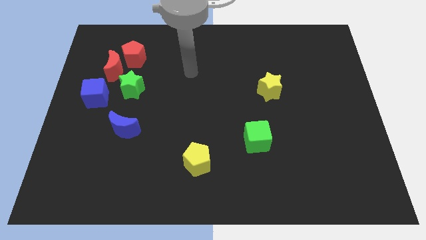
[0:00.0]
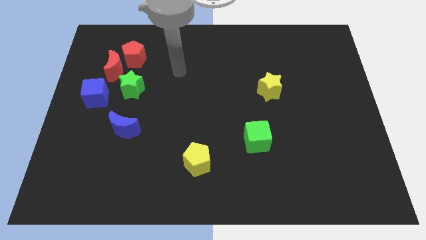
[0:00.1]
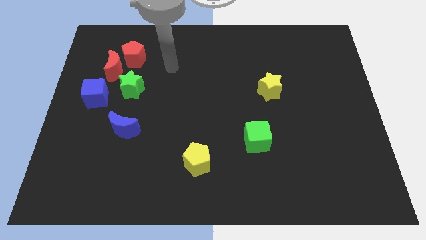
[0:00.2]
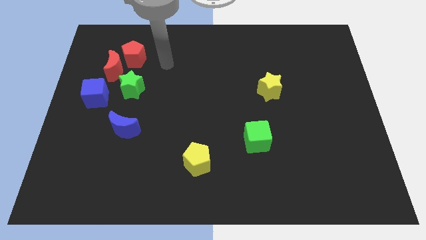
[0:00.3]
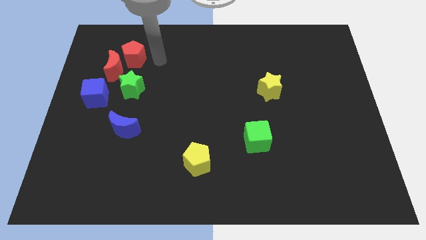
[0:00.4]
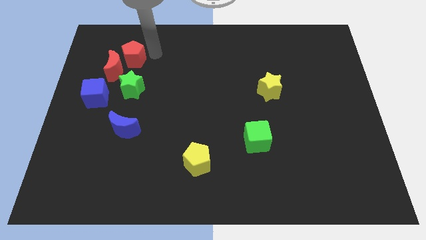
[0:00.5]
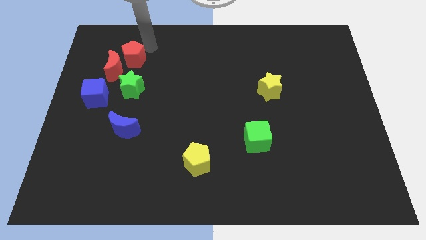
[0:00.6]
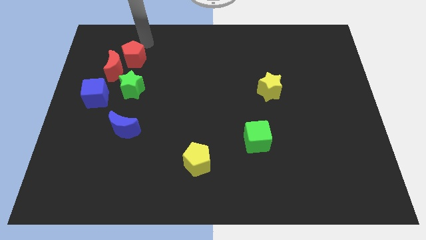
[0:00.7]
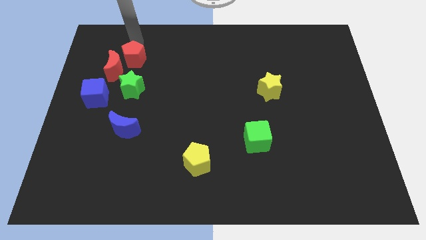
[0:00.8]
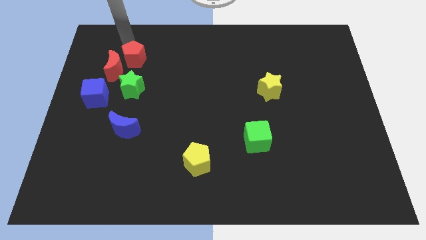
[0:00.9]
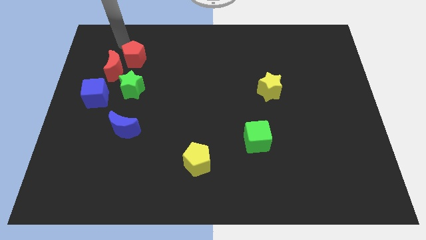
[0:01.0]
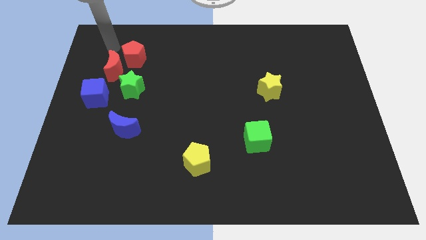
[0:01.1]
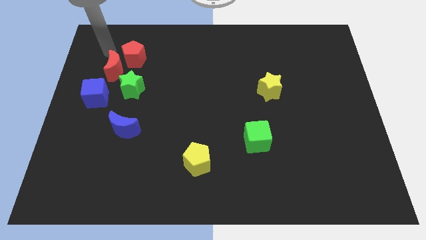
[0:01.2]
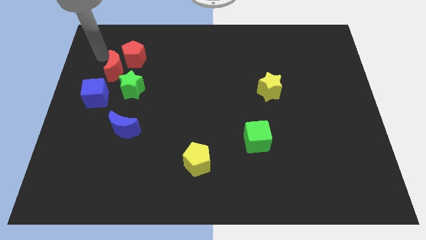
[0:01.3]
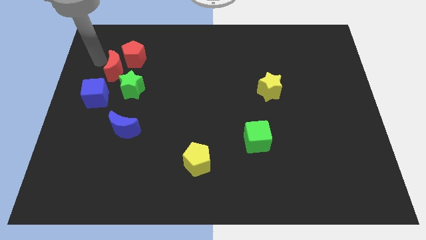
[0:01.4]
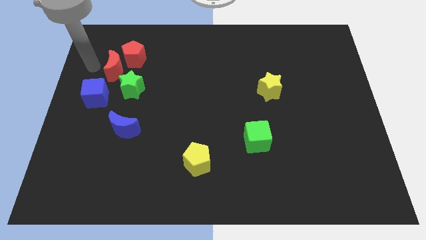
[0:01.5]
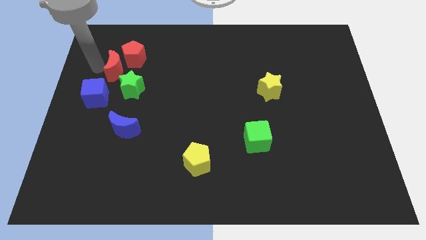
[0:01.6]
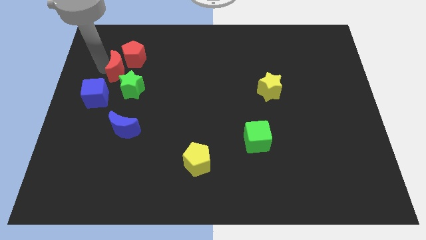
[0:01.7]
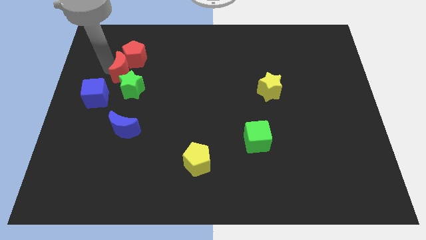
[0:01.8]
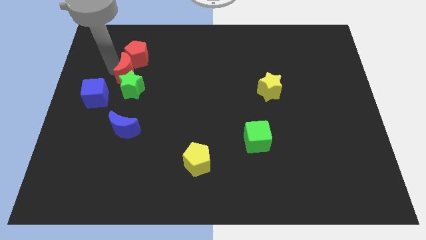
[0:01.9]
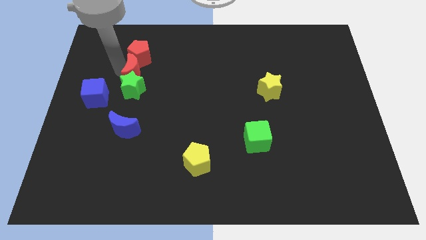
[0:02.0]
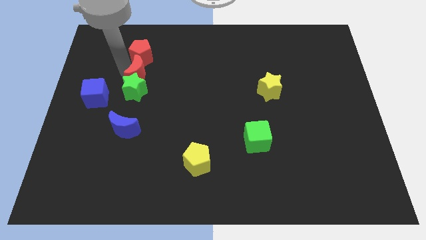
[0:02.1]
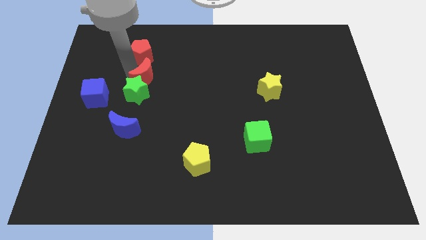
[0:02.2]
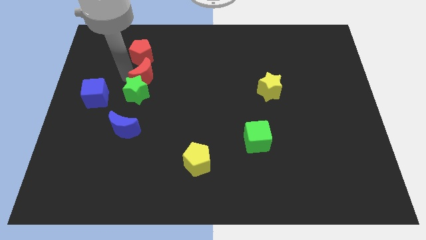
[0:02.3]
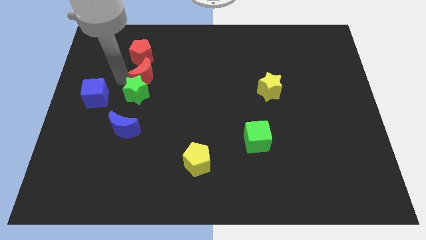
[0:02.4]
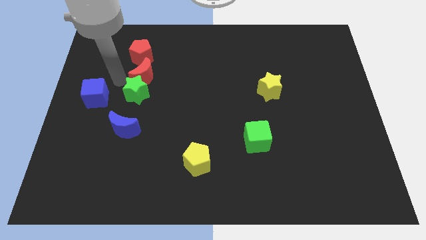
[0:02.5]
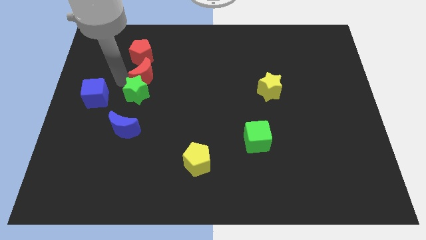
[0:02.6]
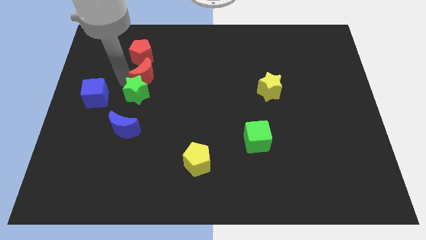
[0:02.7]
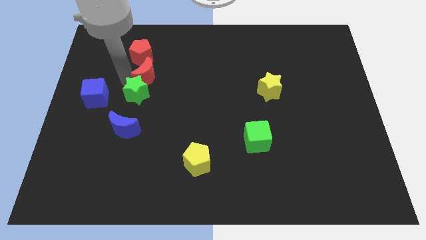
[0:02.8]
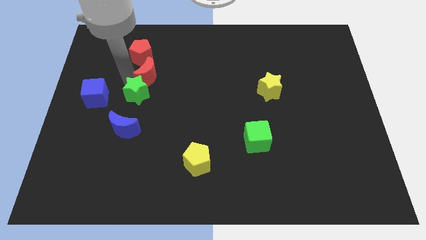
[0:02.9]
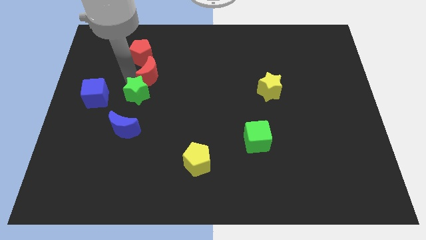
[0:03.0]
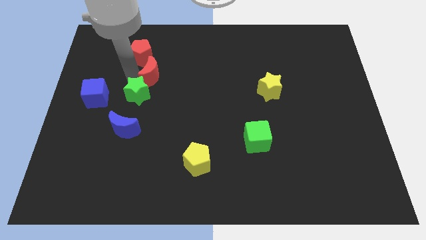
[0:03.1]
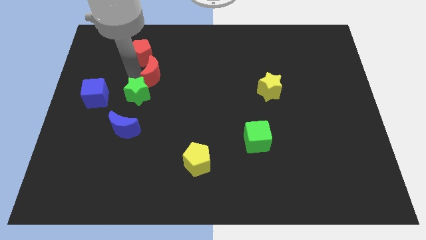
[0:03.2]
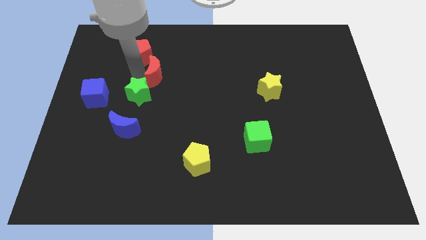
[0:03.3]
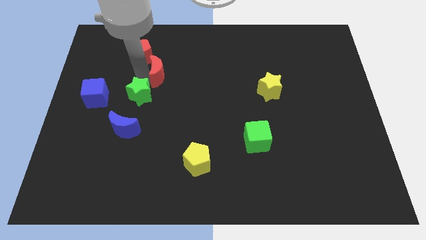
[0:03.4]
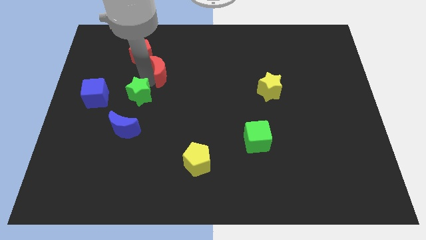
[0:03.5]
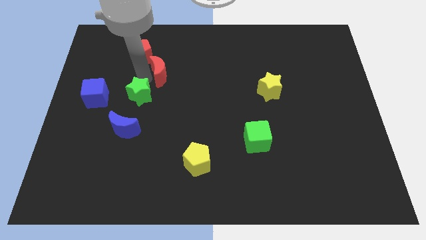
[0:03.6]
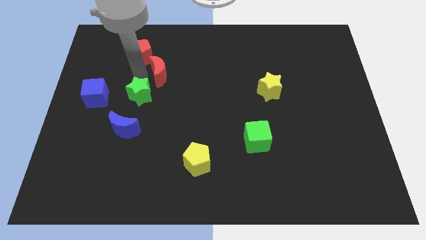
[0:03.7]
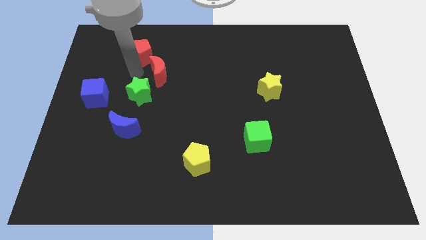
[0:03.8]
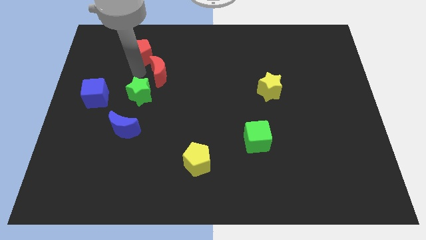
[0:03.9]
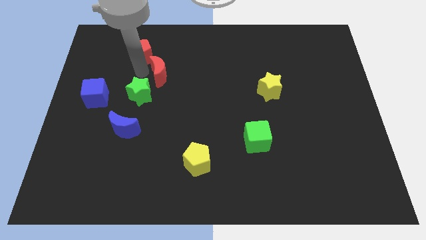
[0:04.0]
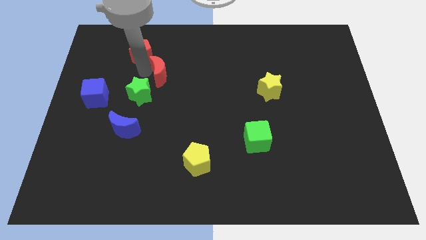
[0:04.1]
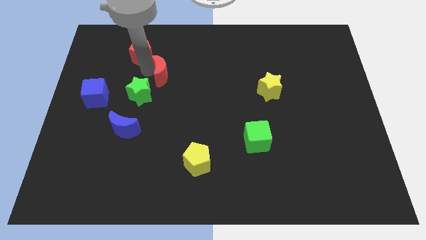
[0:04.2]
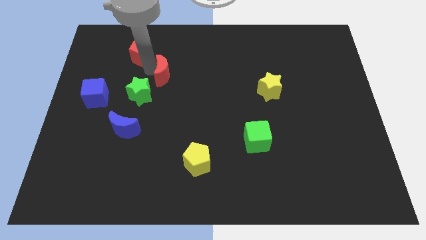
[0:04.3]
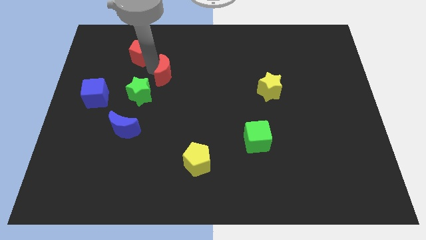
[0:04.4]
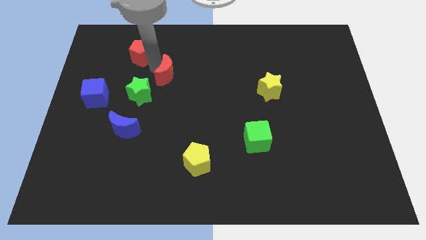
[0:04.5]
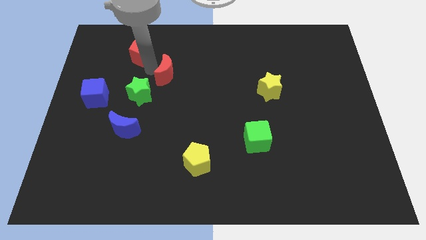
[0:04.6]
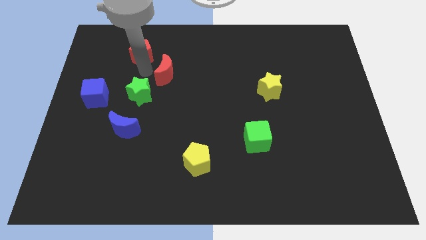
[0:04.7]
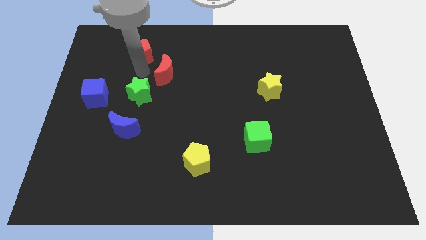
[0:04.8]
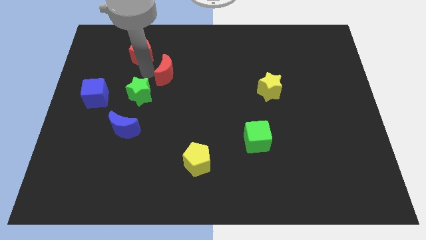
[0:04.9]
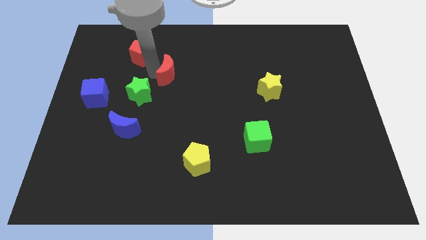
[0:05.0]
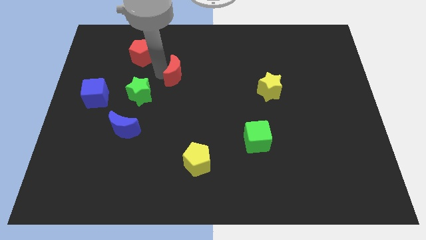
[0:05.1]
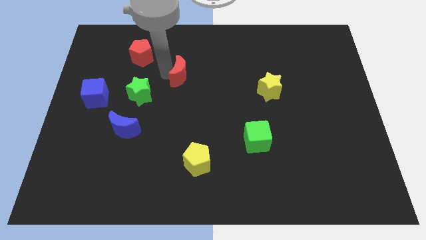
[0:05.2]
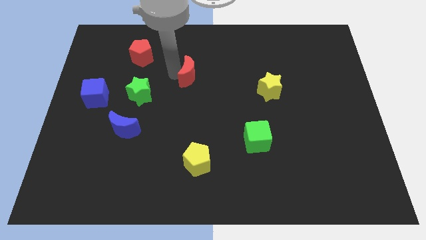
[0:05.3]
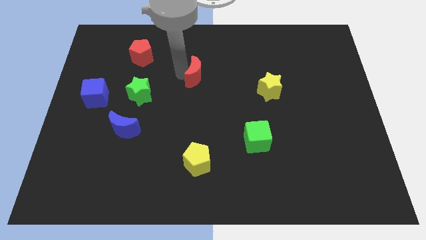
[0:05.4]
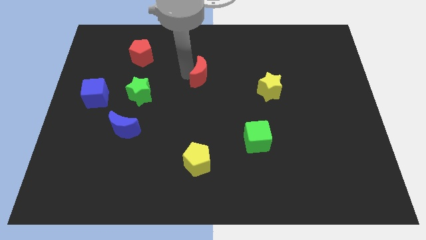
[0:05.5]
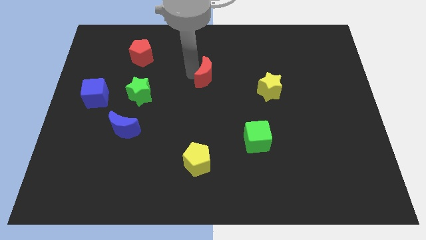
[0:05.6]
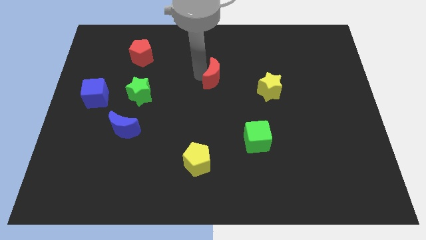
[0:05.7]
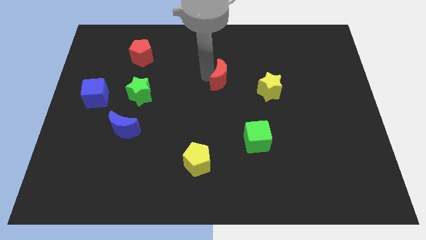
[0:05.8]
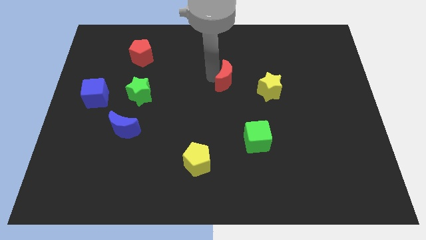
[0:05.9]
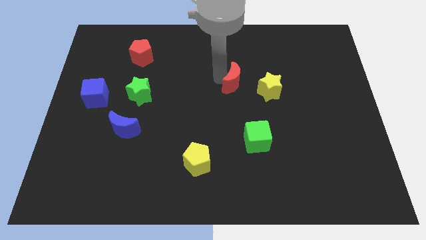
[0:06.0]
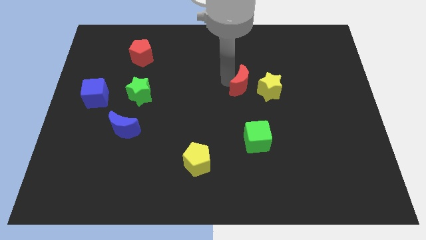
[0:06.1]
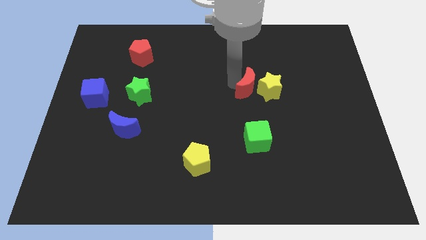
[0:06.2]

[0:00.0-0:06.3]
move the red moon next to the yellow star

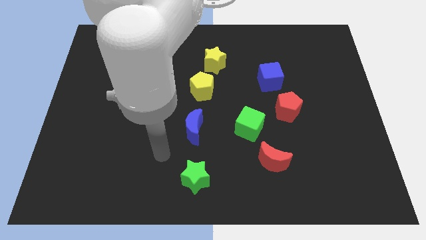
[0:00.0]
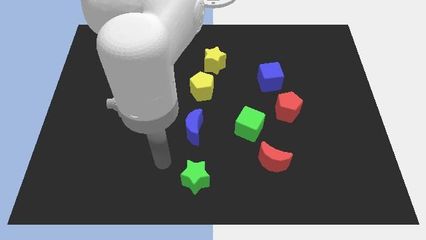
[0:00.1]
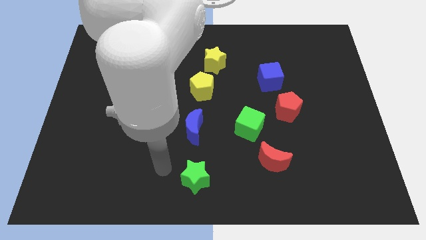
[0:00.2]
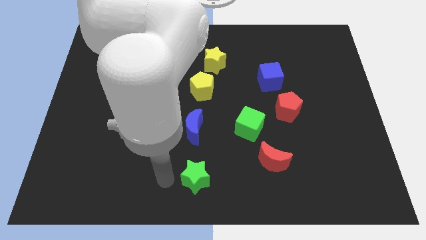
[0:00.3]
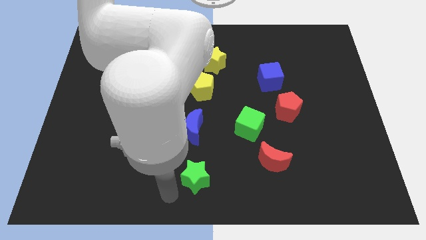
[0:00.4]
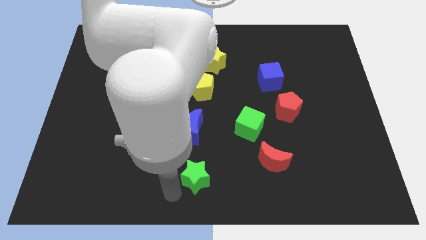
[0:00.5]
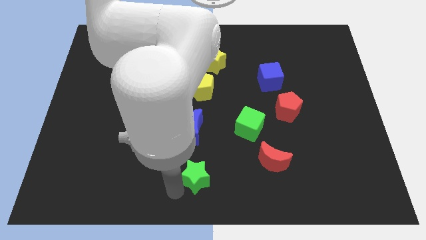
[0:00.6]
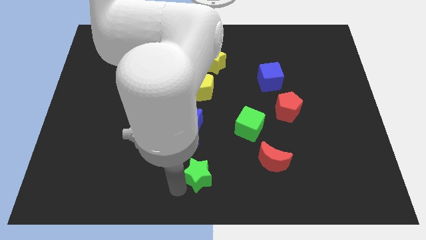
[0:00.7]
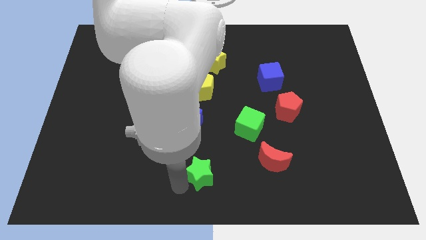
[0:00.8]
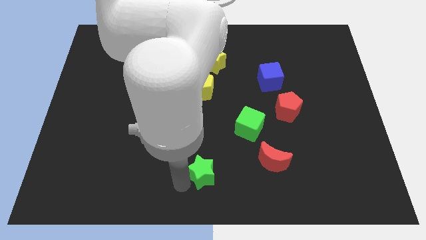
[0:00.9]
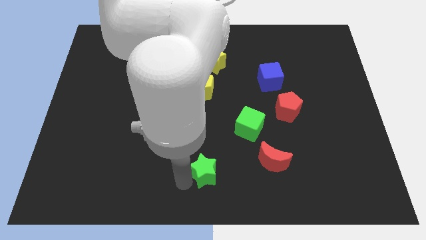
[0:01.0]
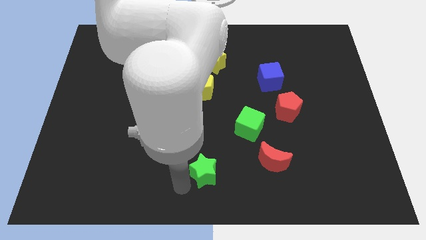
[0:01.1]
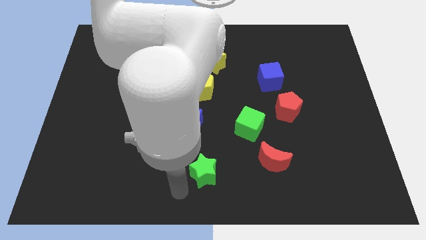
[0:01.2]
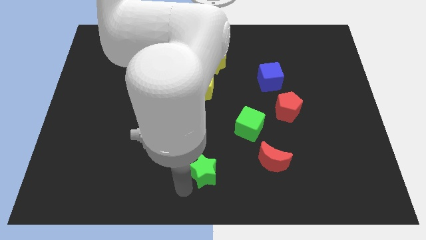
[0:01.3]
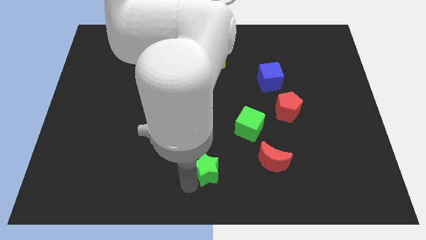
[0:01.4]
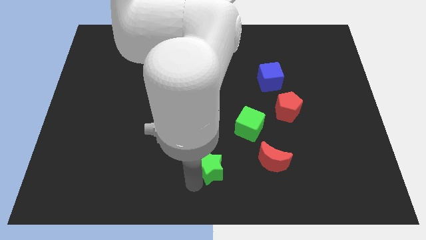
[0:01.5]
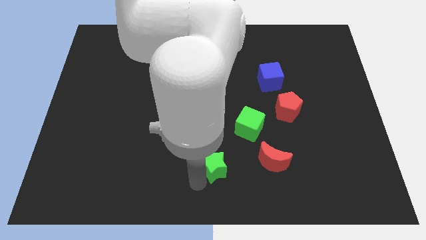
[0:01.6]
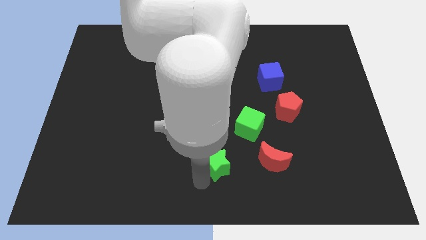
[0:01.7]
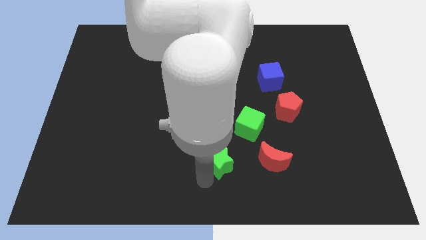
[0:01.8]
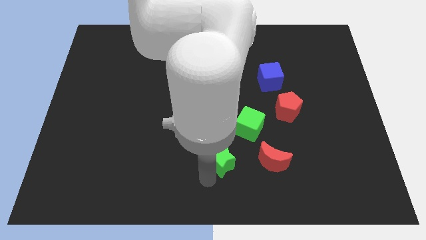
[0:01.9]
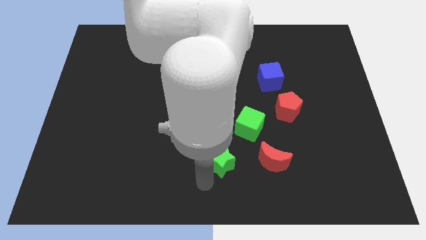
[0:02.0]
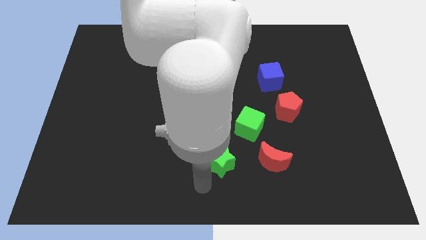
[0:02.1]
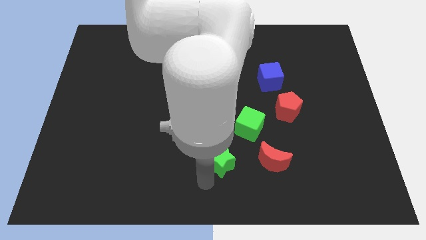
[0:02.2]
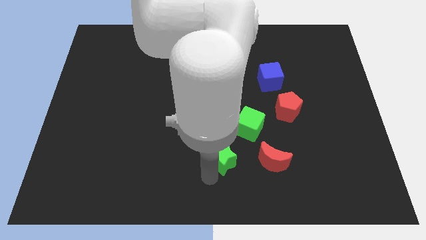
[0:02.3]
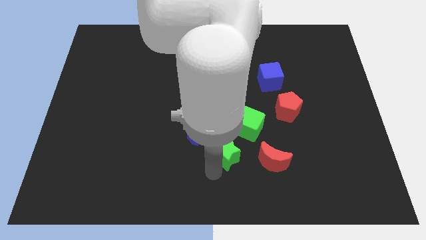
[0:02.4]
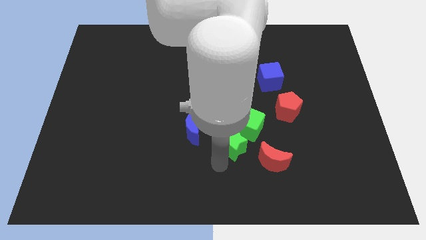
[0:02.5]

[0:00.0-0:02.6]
slide the green star next to the green cube
